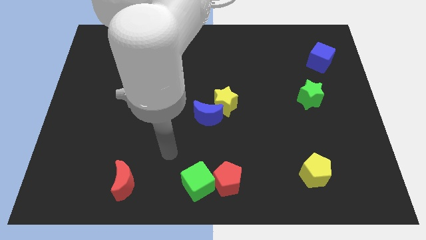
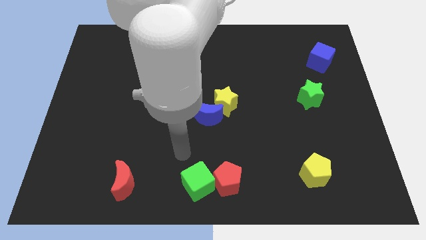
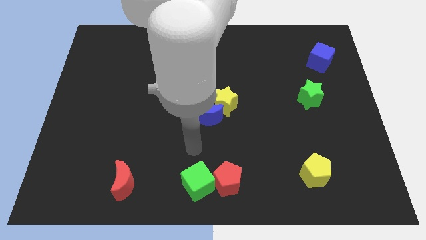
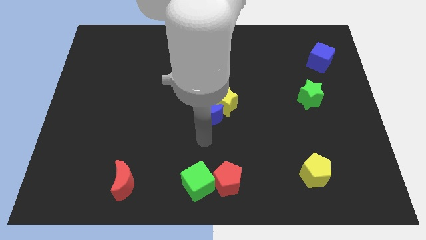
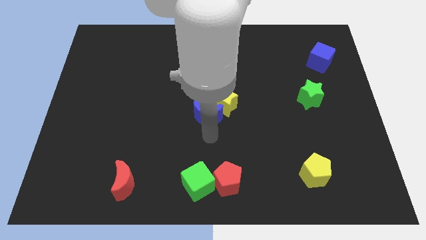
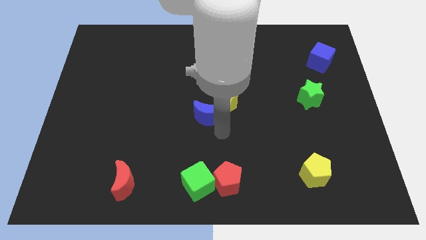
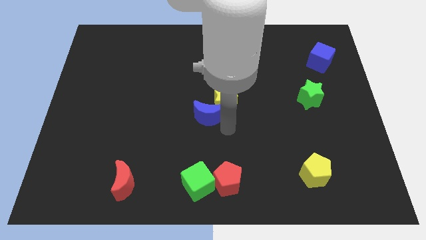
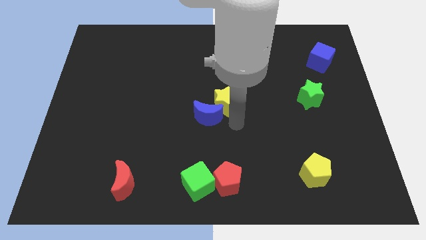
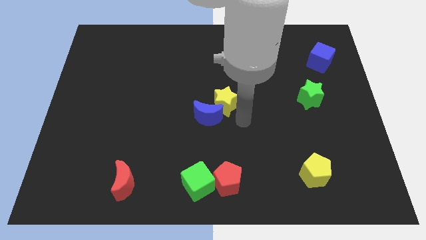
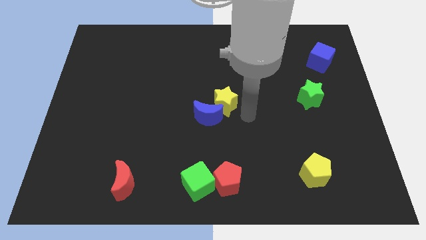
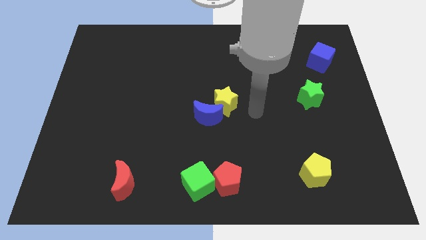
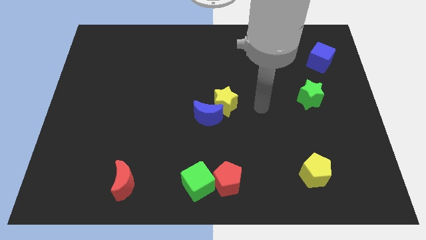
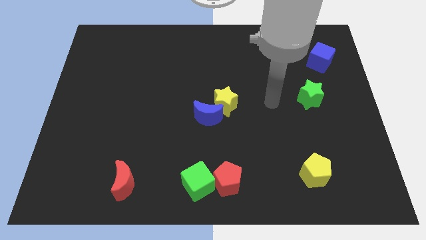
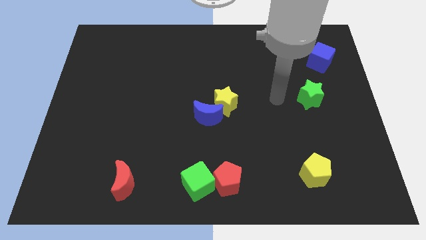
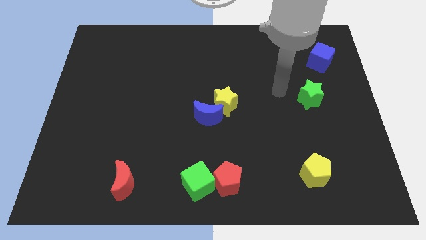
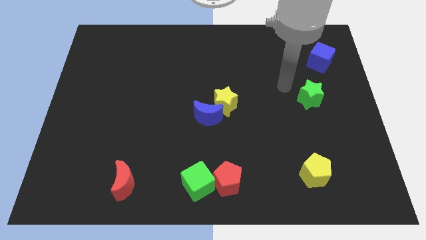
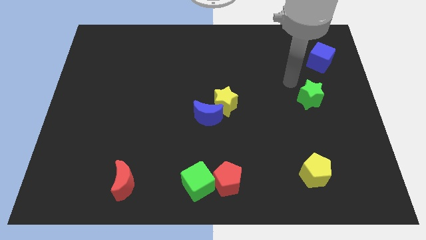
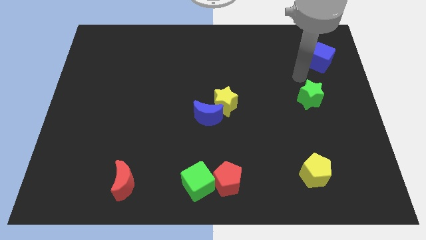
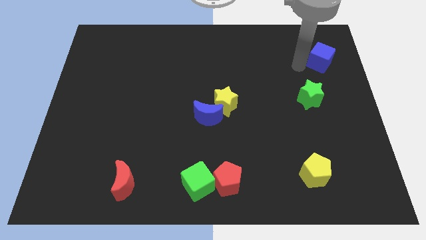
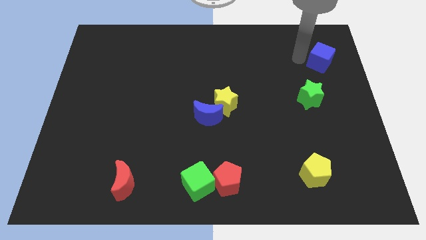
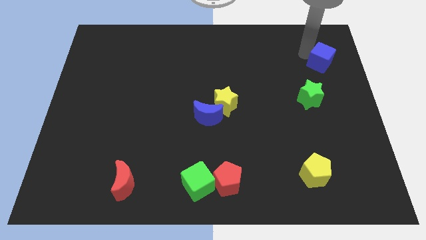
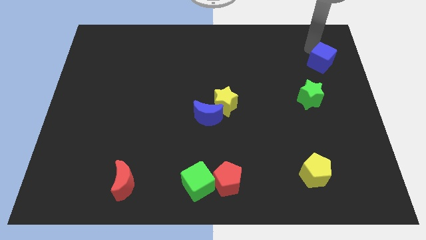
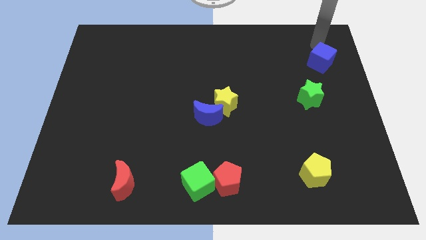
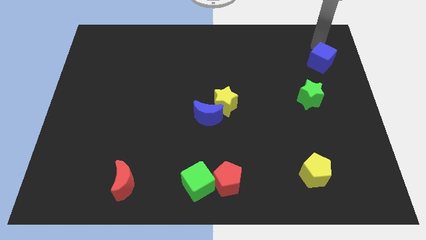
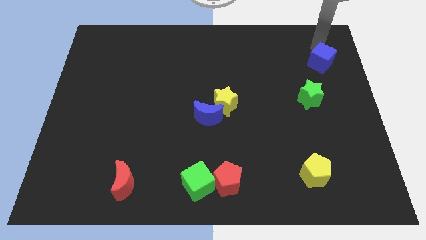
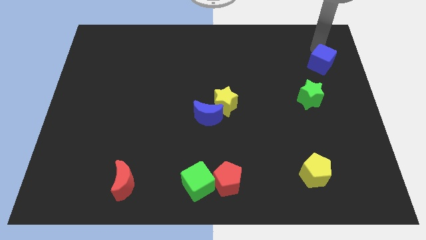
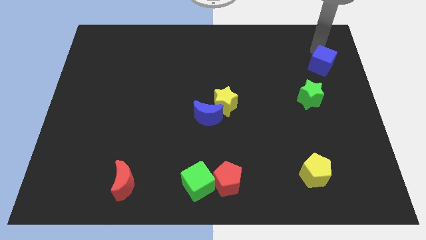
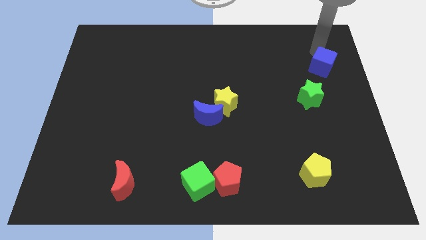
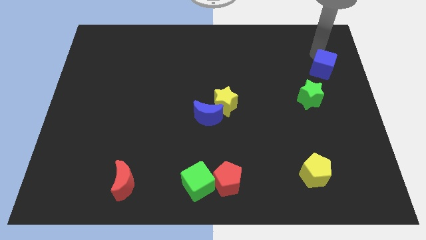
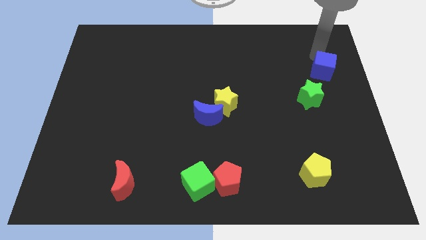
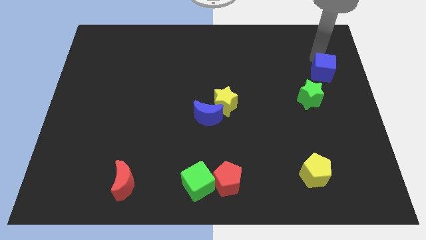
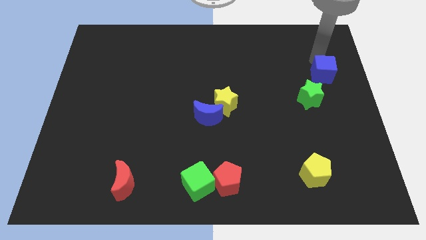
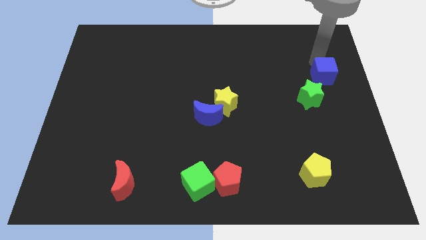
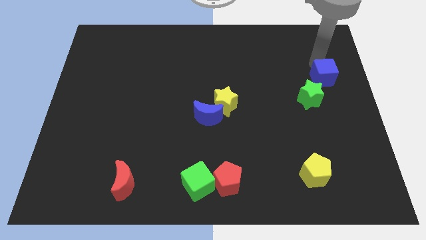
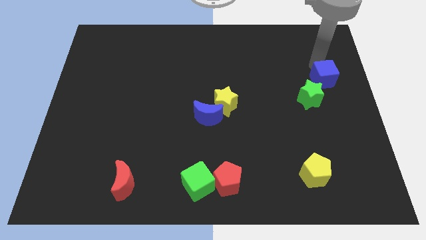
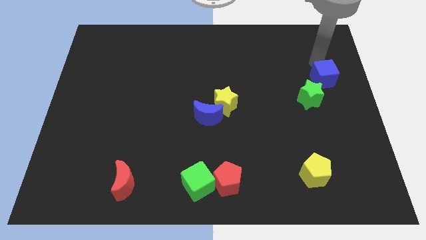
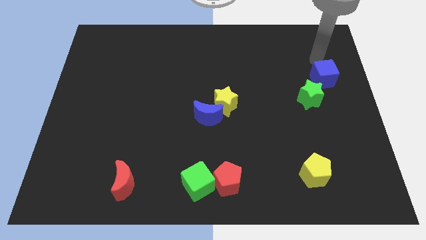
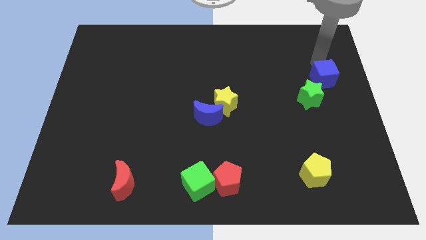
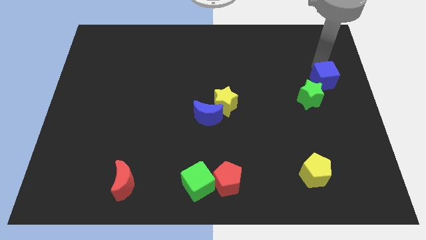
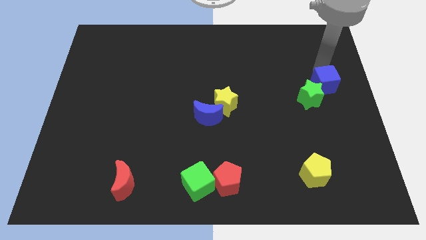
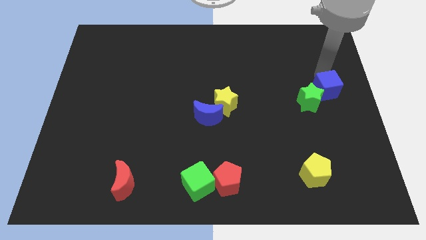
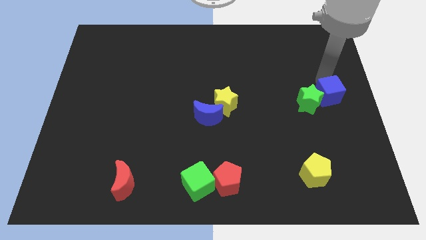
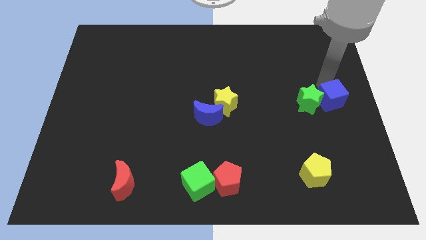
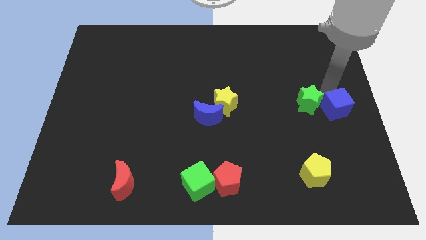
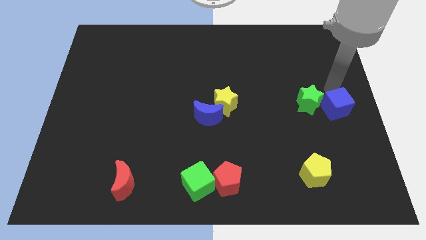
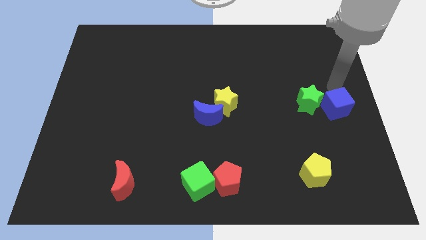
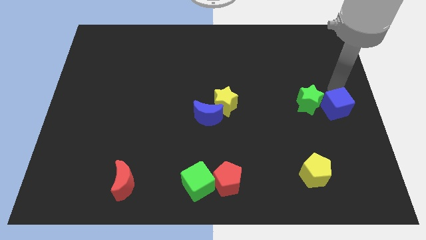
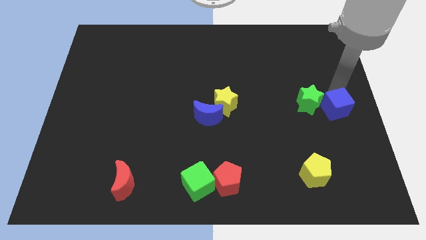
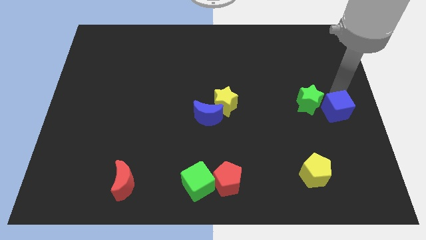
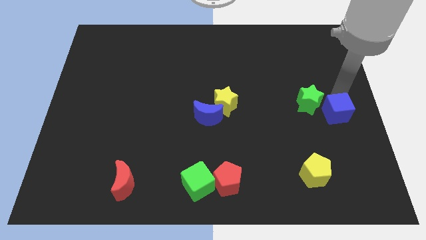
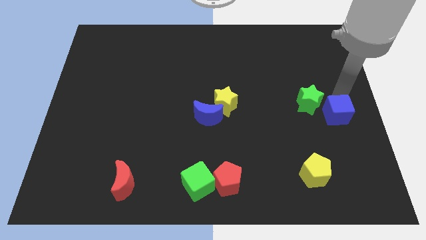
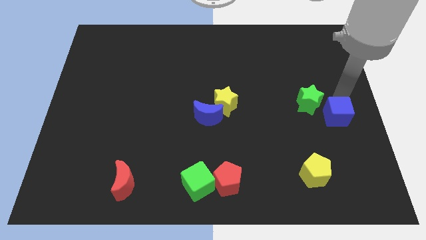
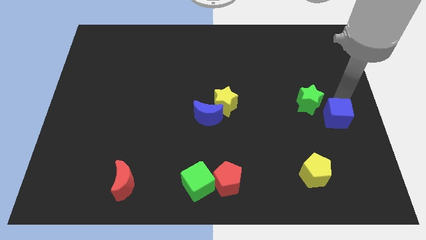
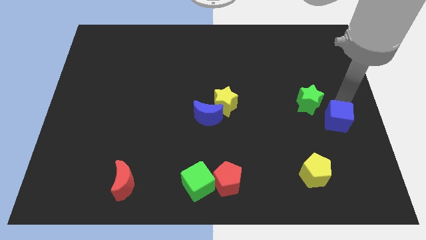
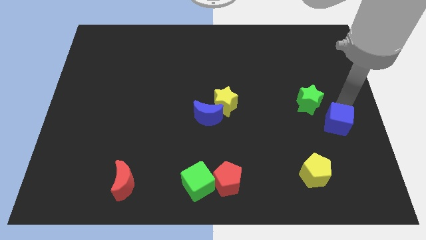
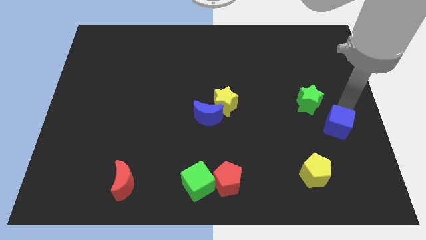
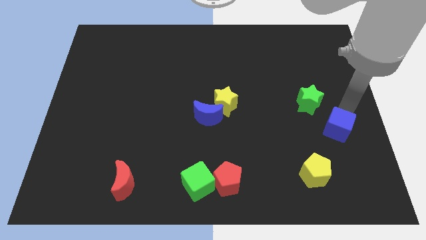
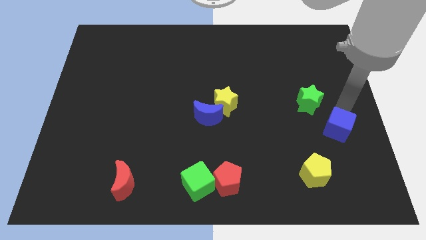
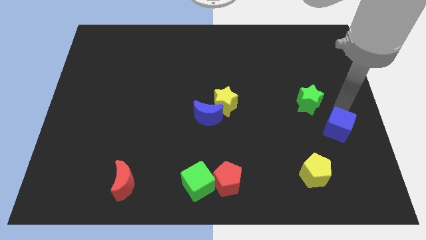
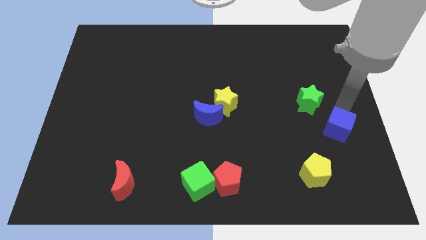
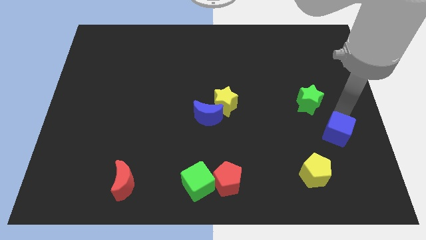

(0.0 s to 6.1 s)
push the blue cube to the top right side of the yellow pentagon
